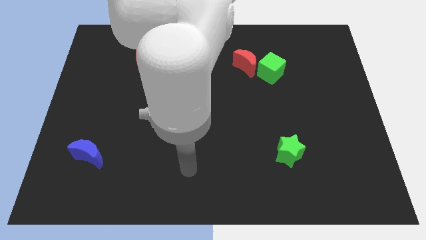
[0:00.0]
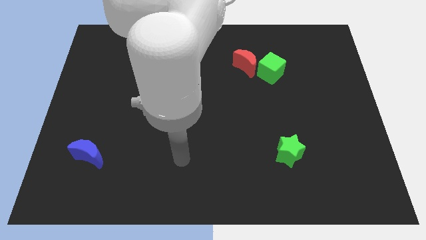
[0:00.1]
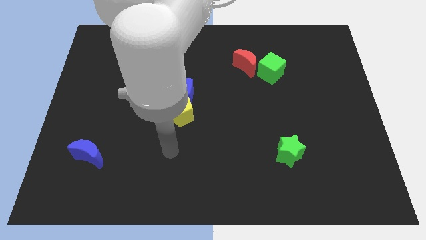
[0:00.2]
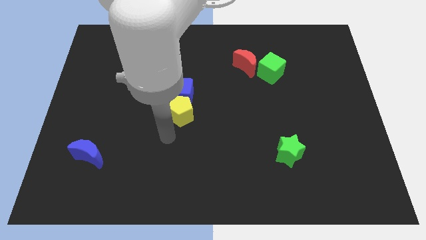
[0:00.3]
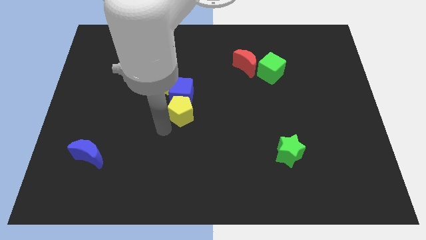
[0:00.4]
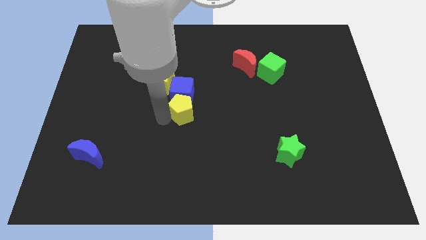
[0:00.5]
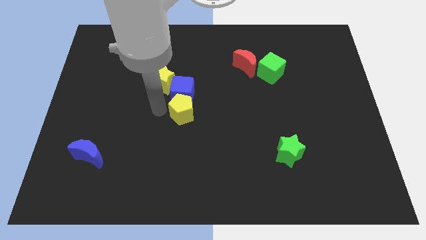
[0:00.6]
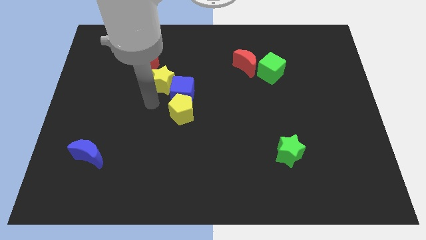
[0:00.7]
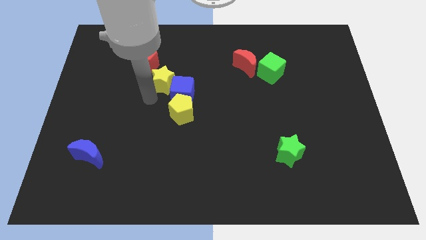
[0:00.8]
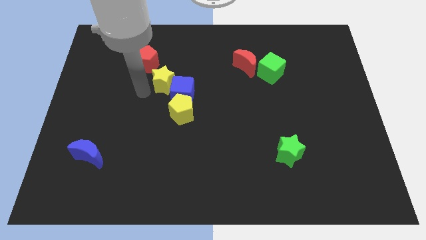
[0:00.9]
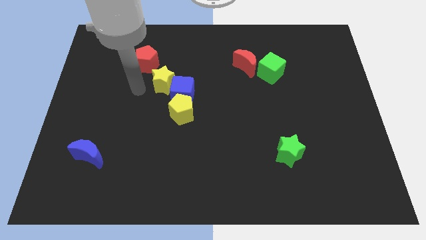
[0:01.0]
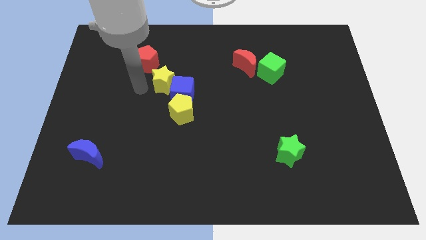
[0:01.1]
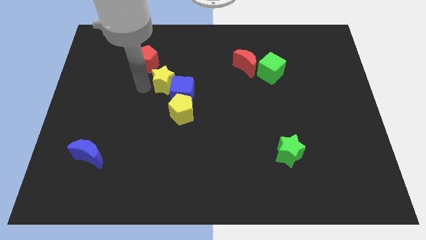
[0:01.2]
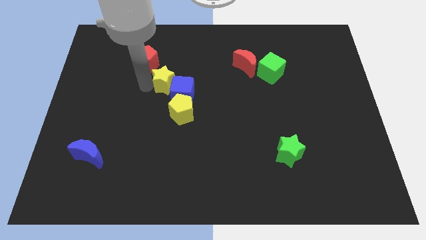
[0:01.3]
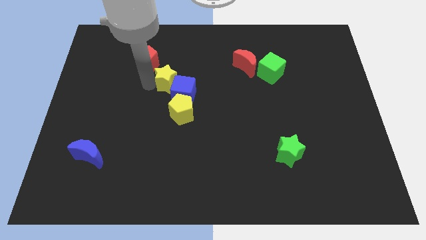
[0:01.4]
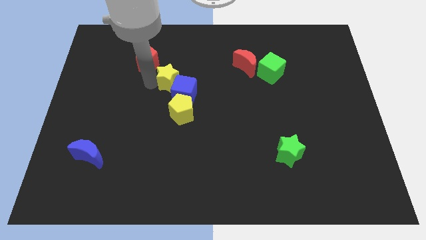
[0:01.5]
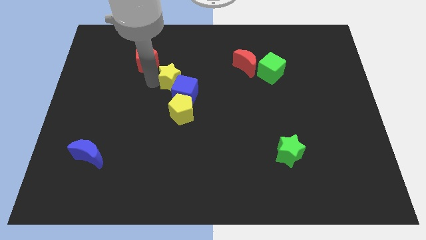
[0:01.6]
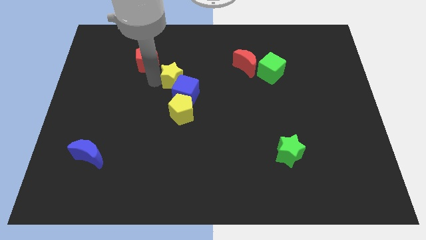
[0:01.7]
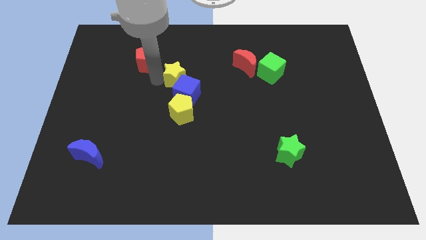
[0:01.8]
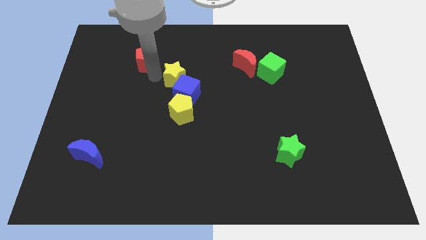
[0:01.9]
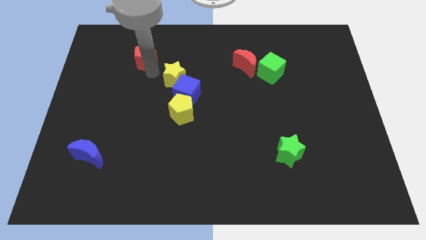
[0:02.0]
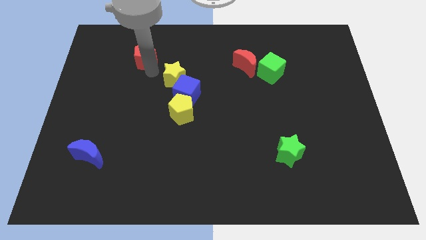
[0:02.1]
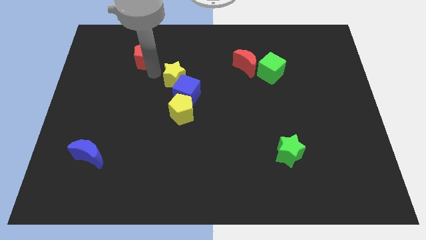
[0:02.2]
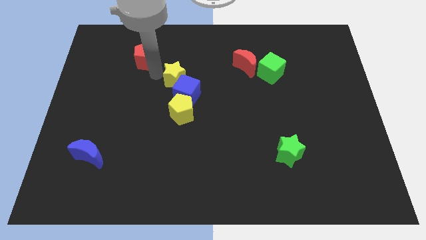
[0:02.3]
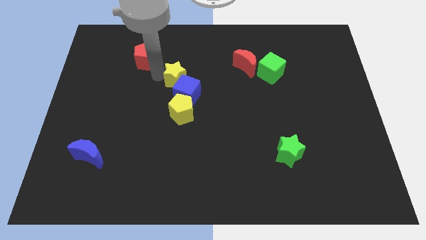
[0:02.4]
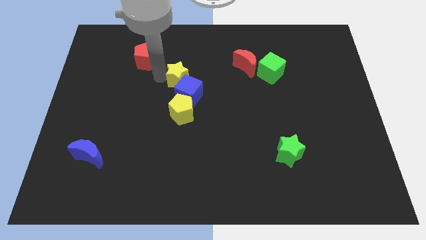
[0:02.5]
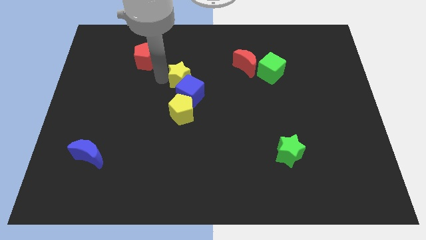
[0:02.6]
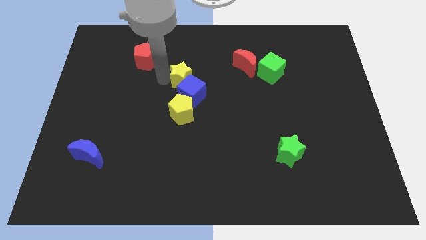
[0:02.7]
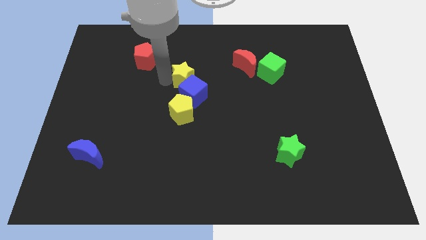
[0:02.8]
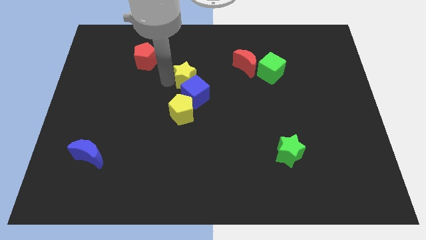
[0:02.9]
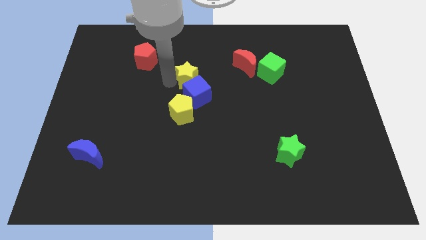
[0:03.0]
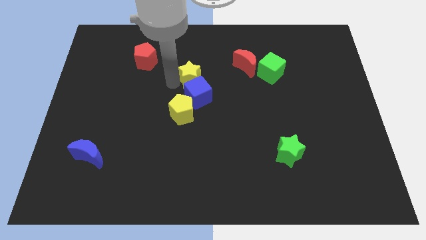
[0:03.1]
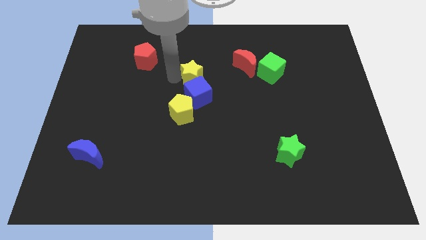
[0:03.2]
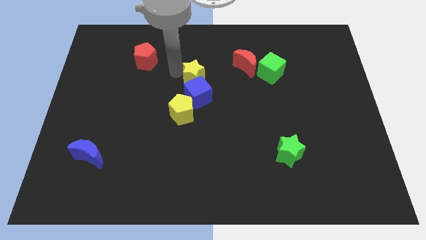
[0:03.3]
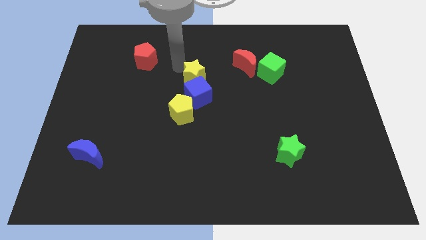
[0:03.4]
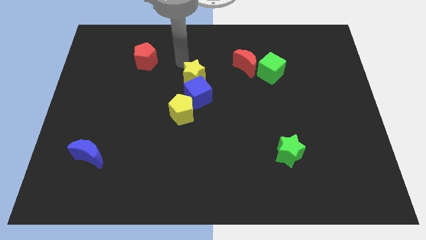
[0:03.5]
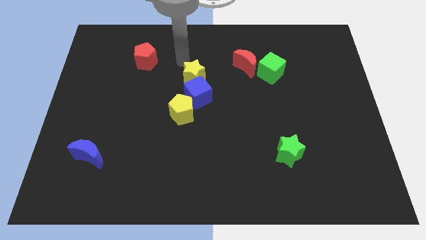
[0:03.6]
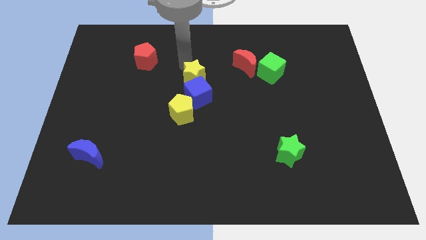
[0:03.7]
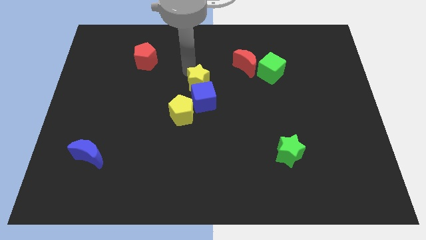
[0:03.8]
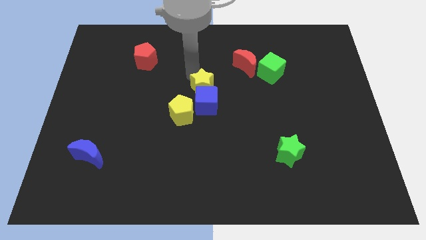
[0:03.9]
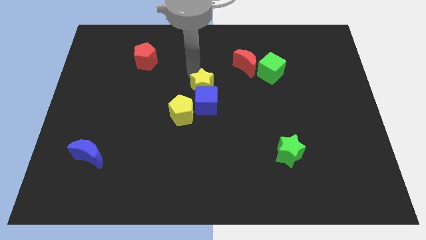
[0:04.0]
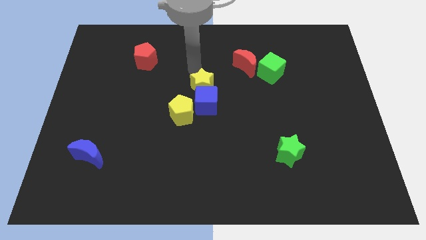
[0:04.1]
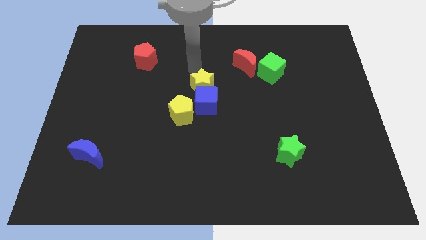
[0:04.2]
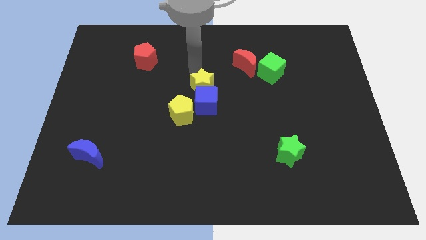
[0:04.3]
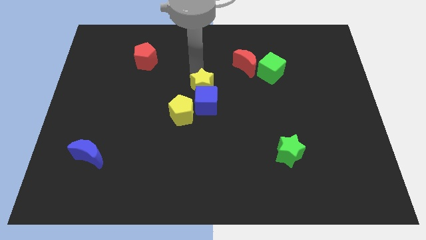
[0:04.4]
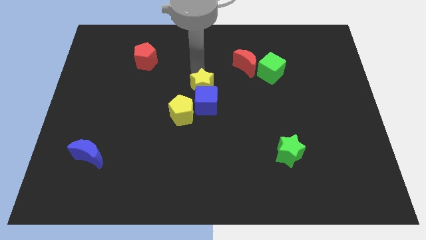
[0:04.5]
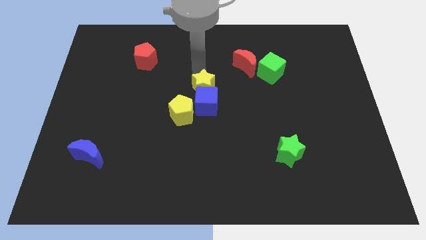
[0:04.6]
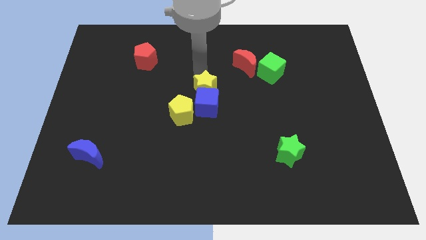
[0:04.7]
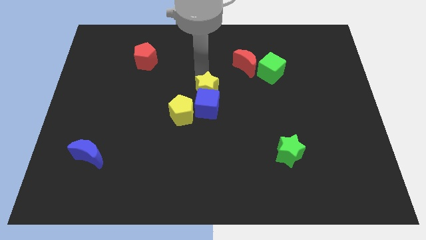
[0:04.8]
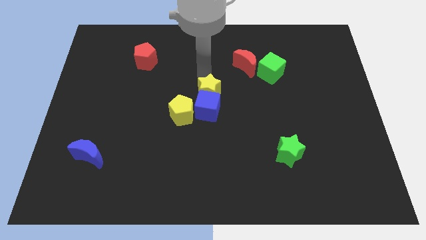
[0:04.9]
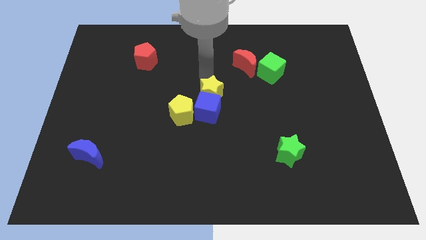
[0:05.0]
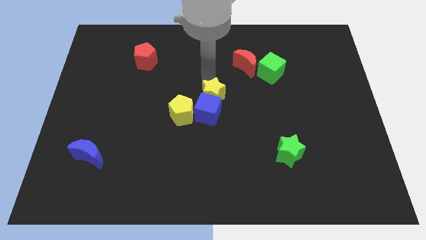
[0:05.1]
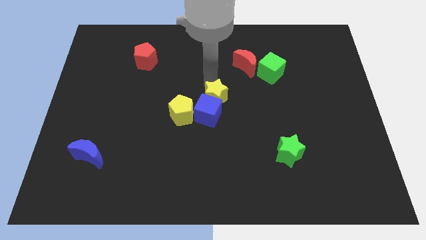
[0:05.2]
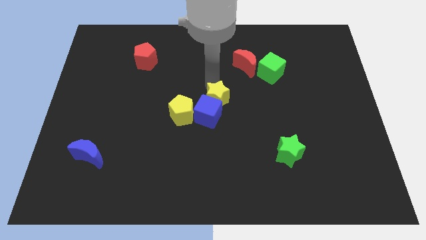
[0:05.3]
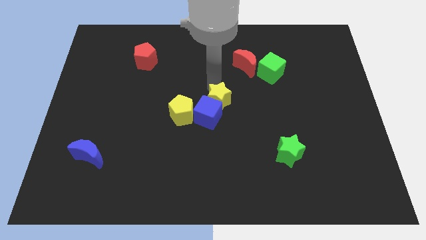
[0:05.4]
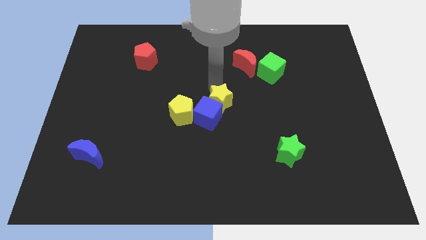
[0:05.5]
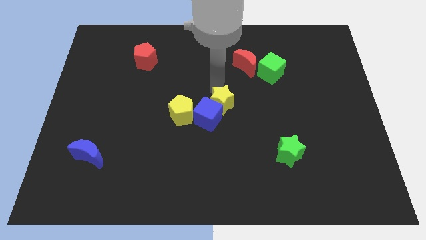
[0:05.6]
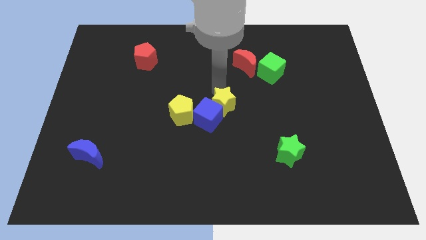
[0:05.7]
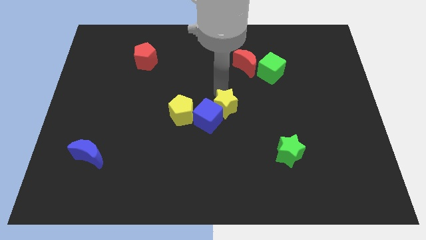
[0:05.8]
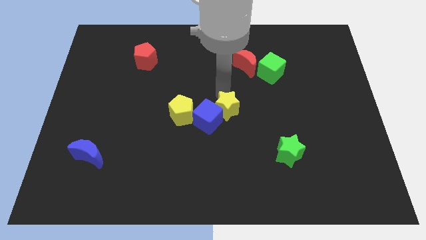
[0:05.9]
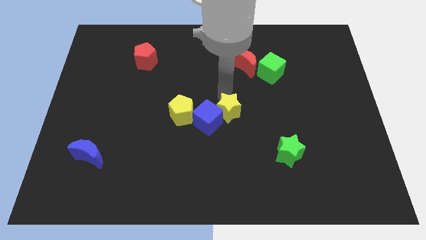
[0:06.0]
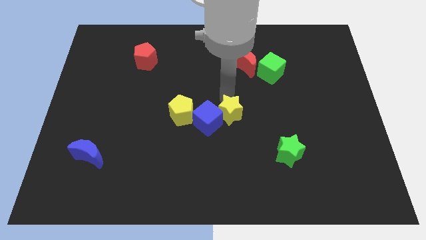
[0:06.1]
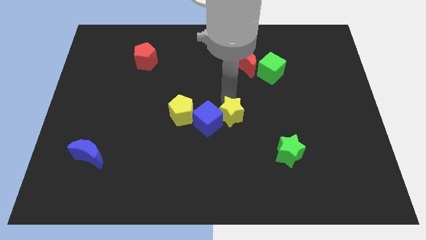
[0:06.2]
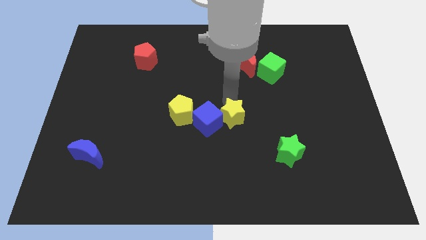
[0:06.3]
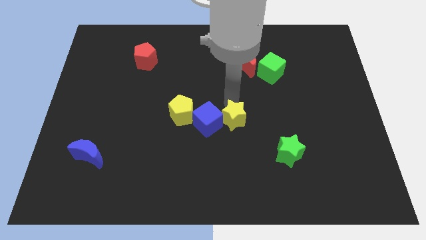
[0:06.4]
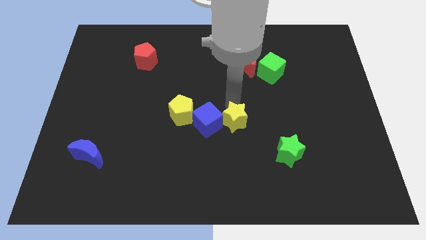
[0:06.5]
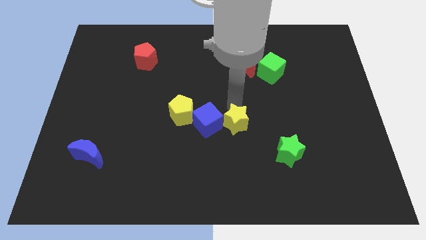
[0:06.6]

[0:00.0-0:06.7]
move the yellow star down and right diagonally
